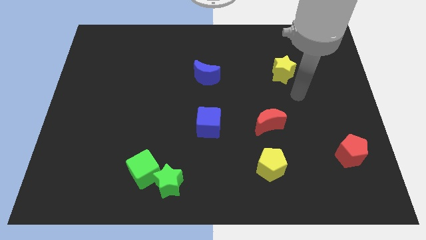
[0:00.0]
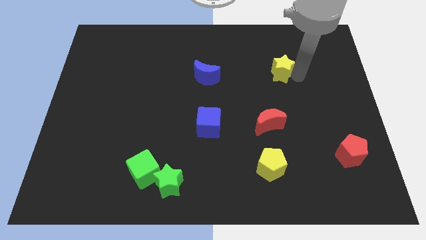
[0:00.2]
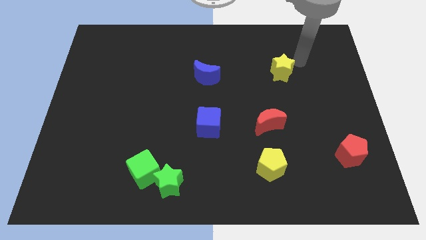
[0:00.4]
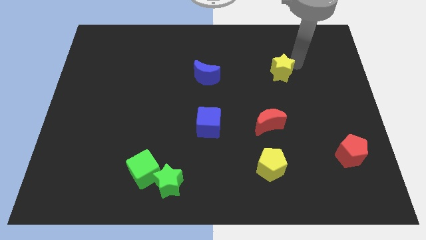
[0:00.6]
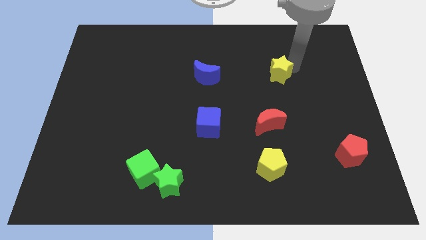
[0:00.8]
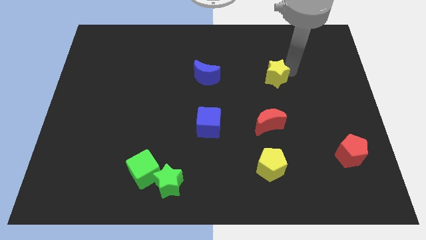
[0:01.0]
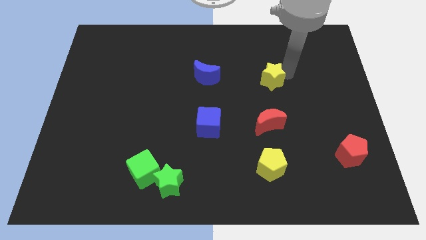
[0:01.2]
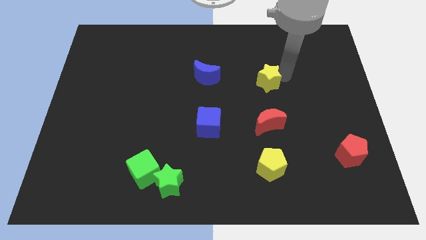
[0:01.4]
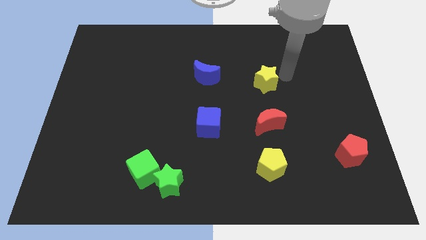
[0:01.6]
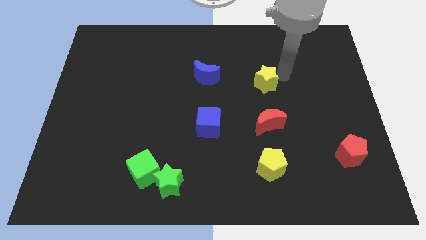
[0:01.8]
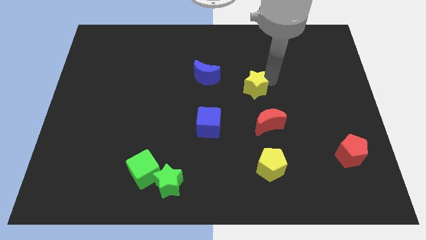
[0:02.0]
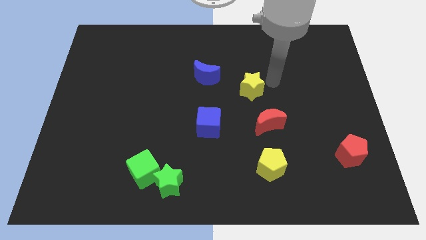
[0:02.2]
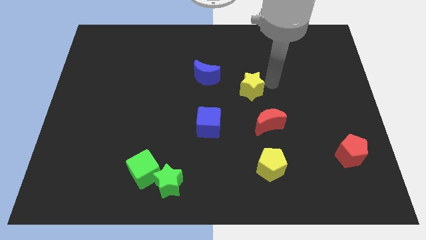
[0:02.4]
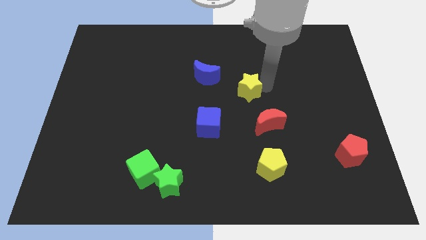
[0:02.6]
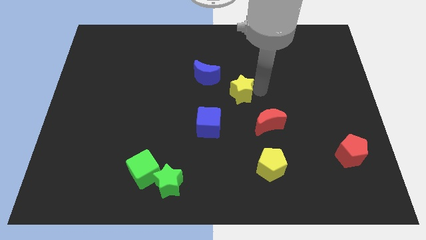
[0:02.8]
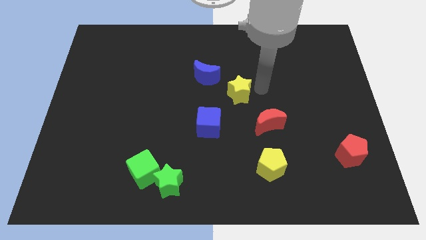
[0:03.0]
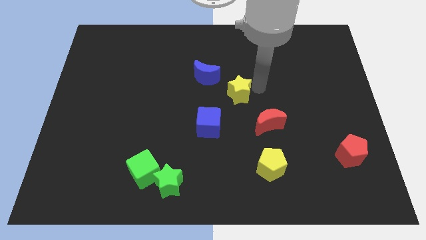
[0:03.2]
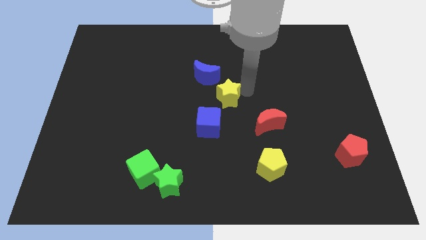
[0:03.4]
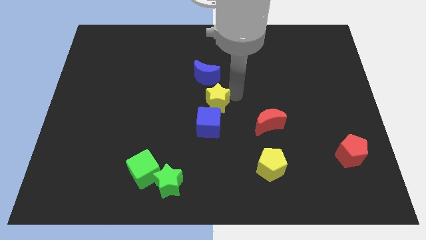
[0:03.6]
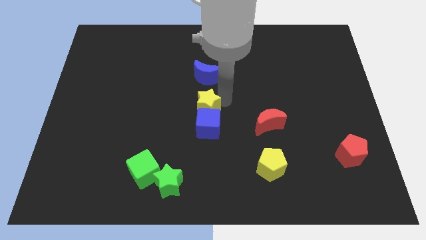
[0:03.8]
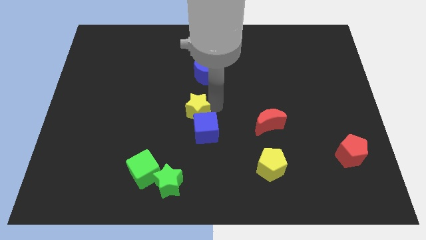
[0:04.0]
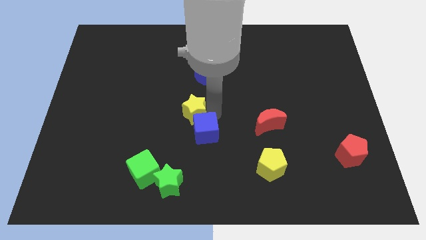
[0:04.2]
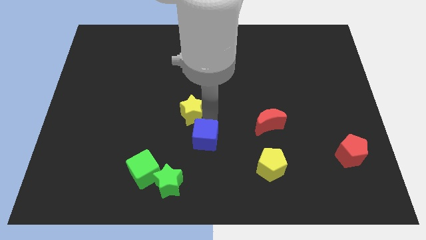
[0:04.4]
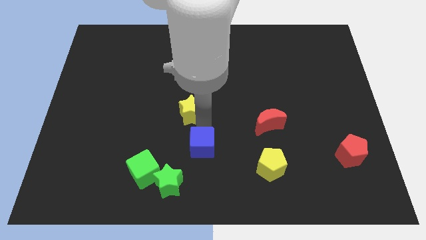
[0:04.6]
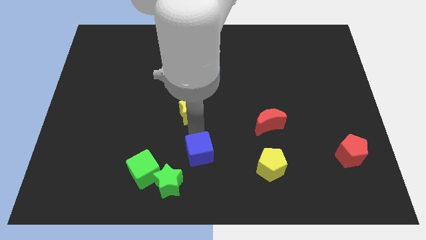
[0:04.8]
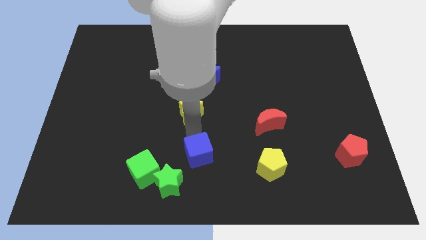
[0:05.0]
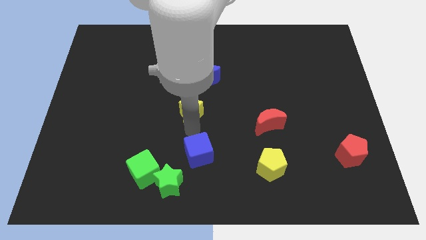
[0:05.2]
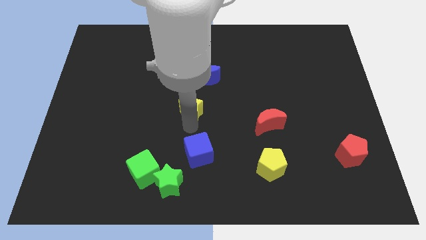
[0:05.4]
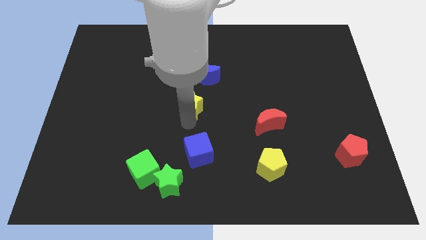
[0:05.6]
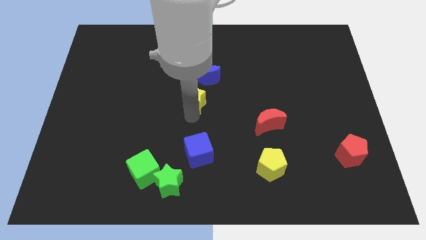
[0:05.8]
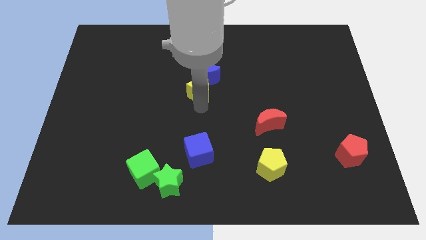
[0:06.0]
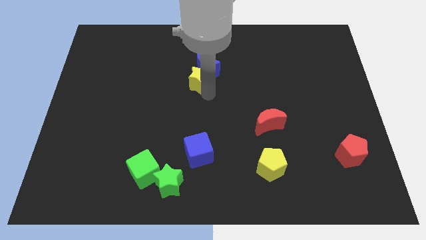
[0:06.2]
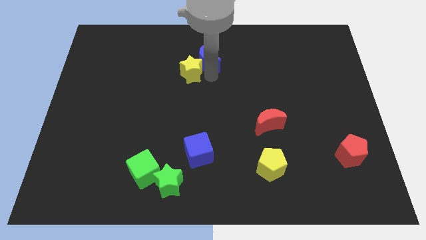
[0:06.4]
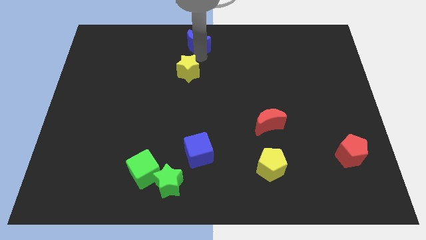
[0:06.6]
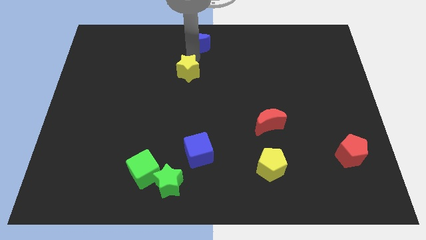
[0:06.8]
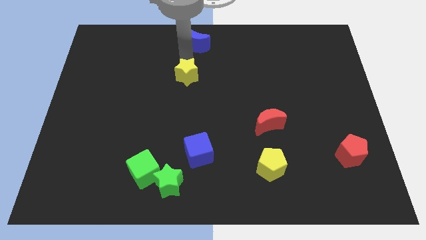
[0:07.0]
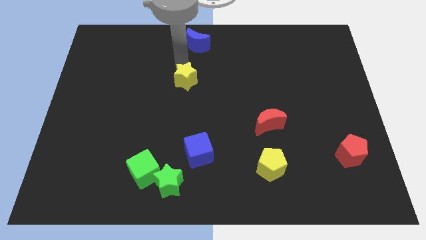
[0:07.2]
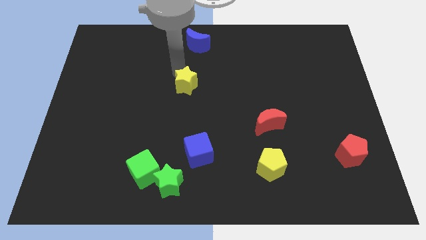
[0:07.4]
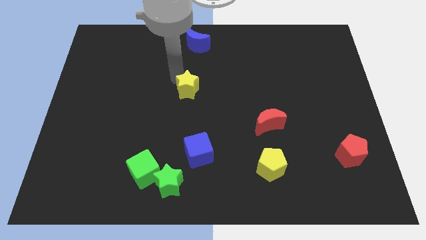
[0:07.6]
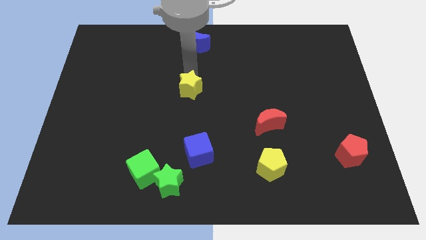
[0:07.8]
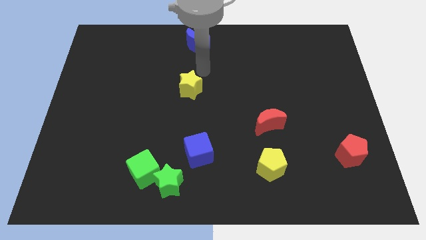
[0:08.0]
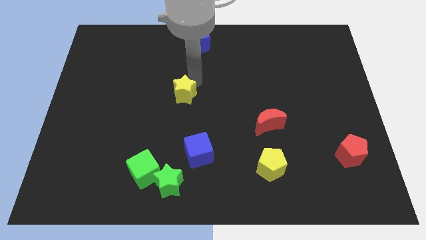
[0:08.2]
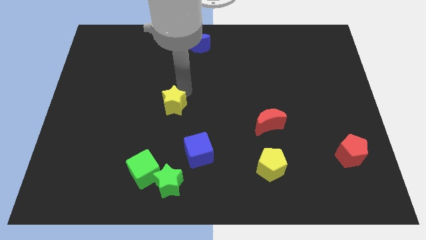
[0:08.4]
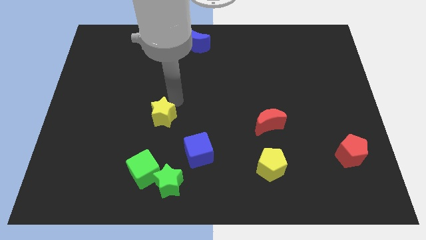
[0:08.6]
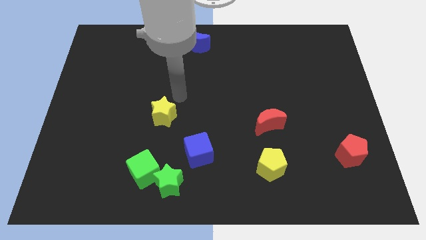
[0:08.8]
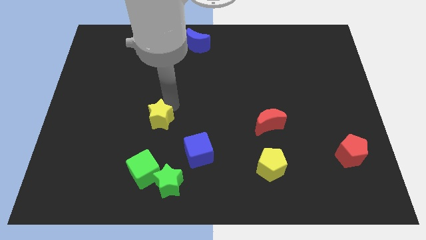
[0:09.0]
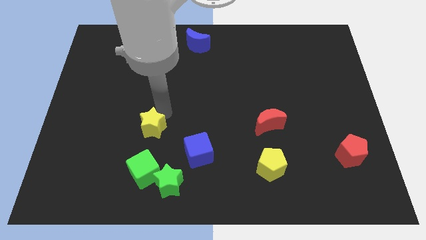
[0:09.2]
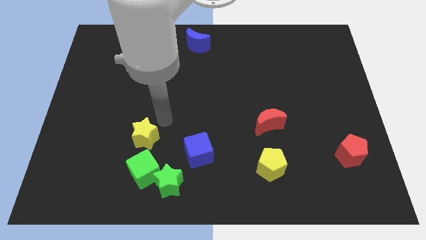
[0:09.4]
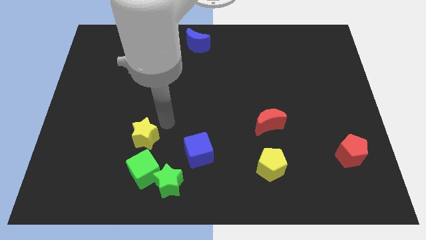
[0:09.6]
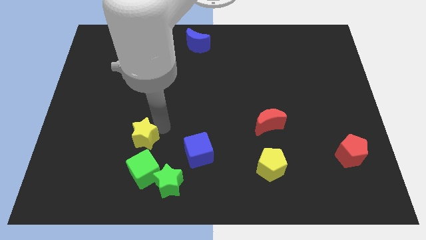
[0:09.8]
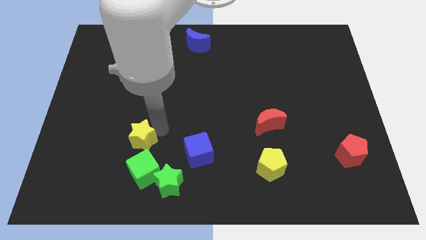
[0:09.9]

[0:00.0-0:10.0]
push the yellow star diagonally up and to the left of the green cube

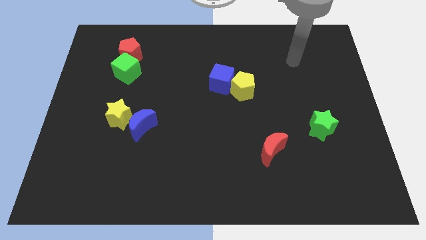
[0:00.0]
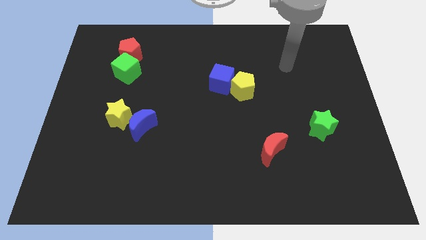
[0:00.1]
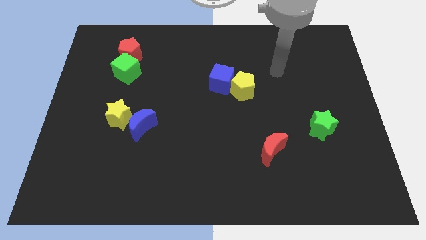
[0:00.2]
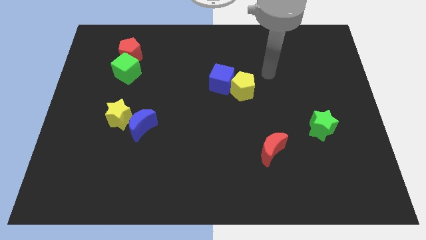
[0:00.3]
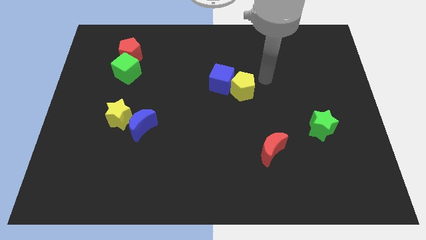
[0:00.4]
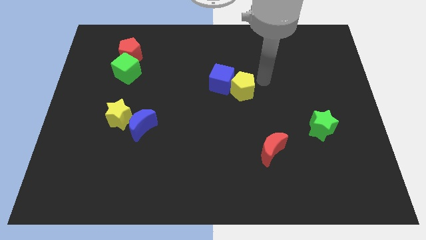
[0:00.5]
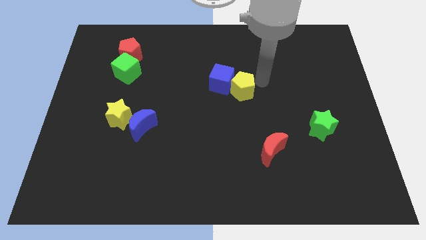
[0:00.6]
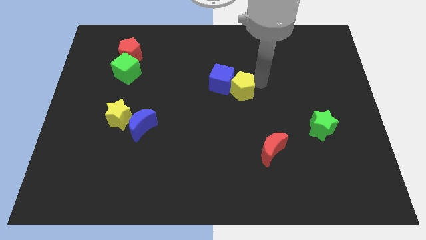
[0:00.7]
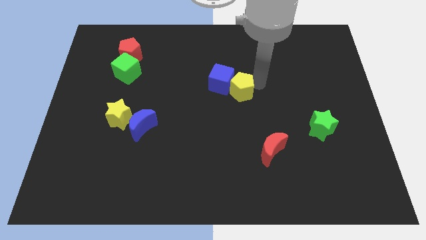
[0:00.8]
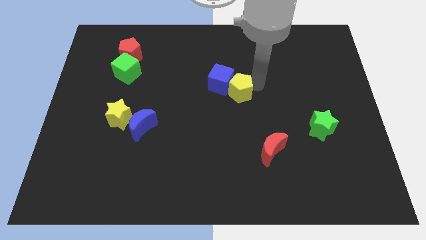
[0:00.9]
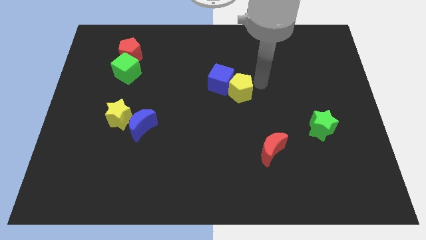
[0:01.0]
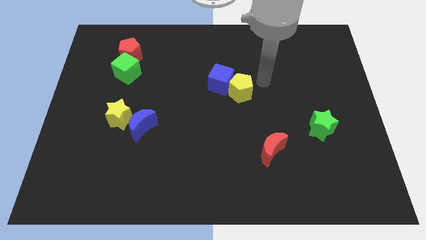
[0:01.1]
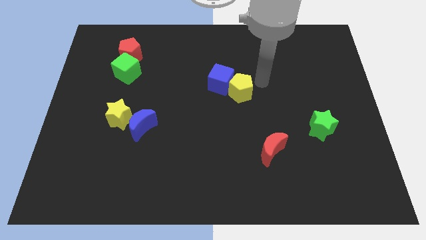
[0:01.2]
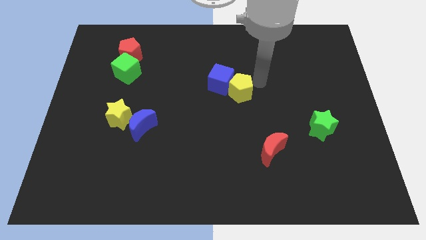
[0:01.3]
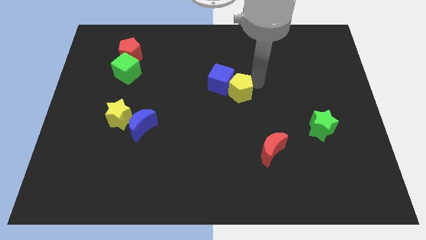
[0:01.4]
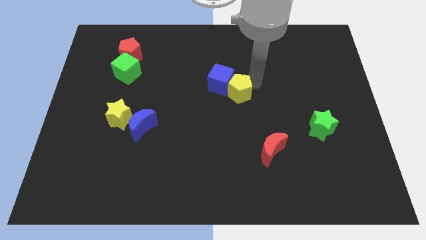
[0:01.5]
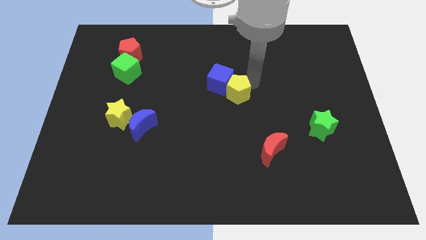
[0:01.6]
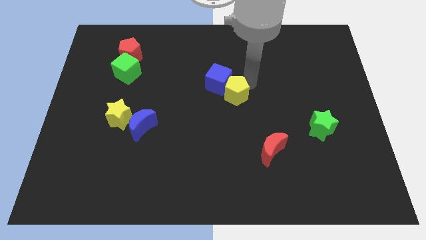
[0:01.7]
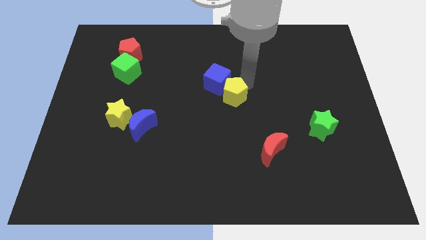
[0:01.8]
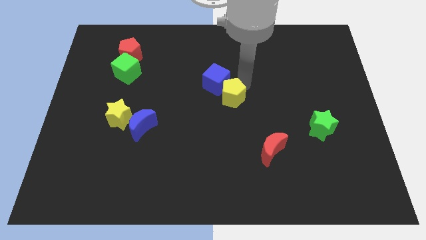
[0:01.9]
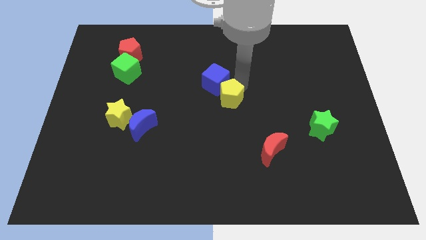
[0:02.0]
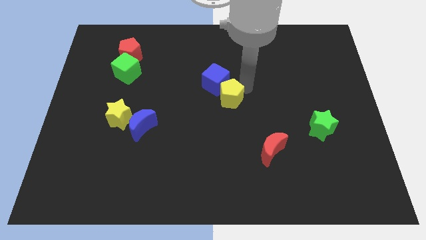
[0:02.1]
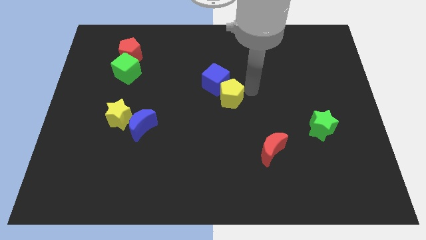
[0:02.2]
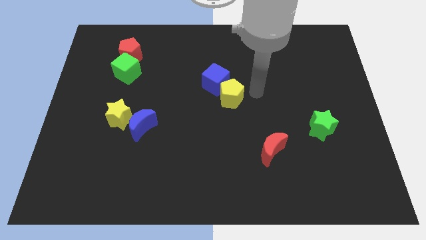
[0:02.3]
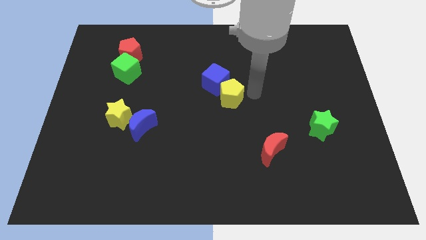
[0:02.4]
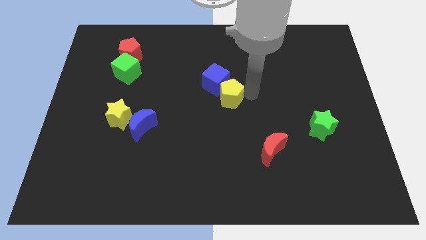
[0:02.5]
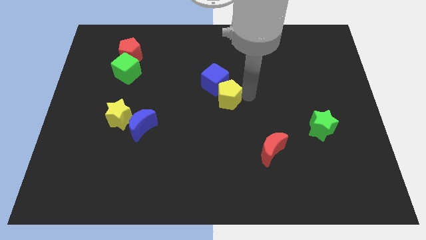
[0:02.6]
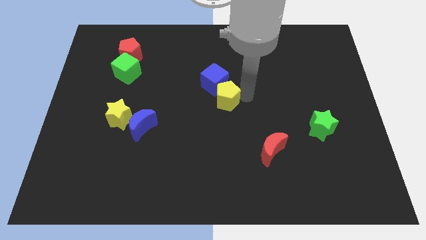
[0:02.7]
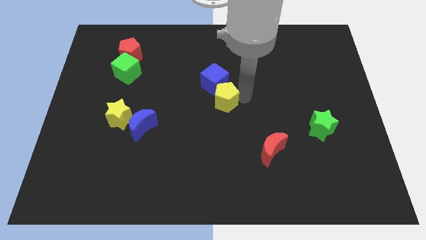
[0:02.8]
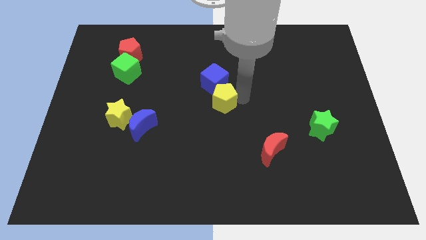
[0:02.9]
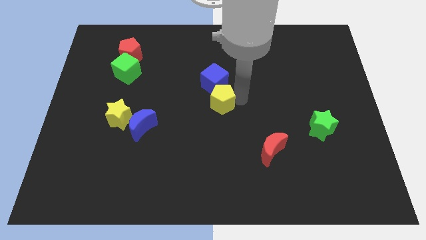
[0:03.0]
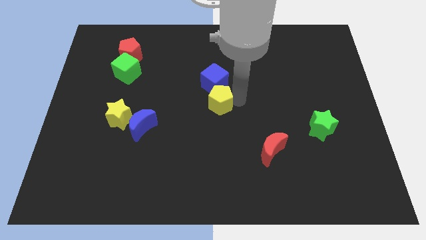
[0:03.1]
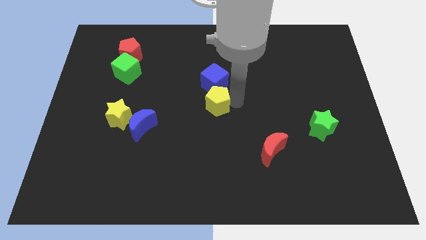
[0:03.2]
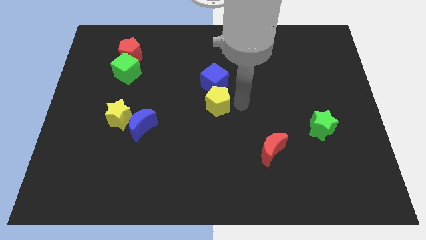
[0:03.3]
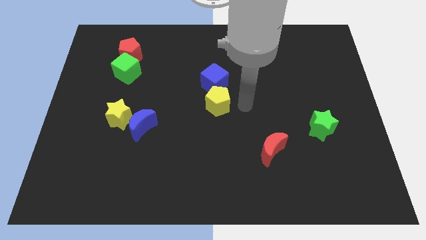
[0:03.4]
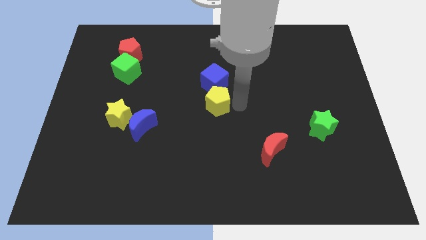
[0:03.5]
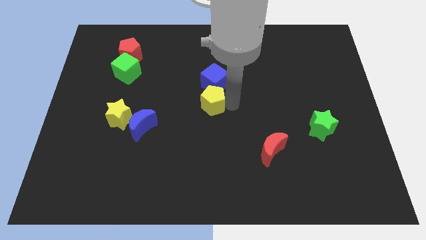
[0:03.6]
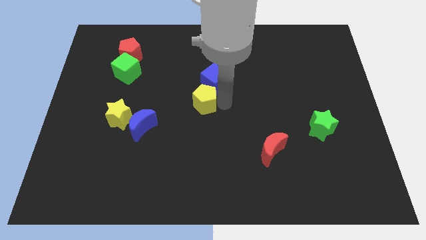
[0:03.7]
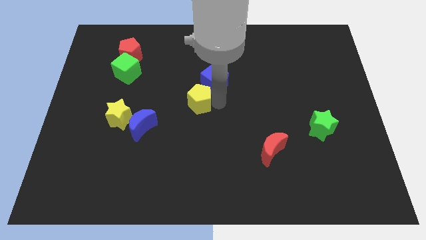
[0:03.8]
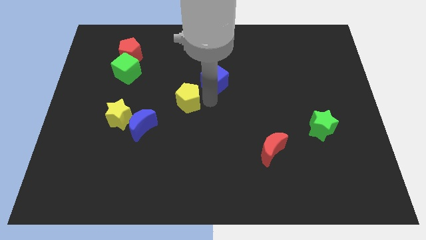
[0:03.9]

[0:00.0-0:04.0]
slide the yellow pentagon to the top right of the blue moon
